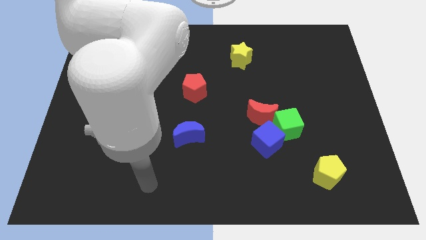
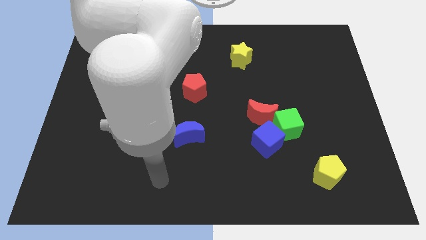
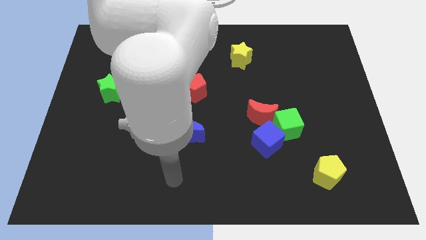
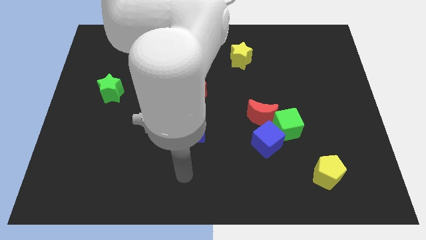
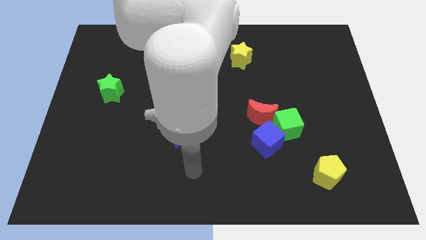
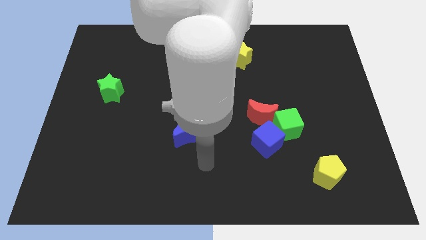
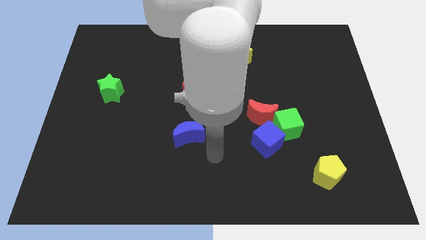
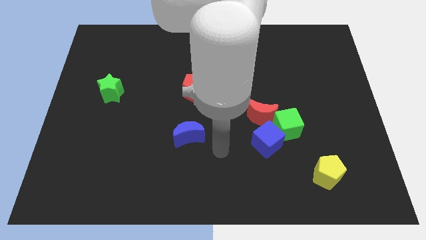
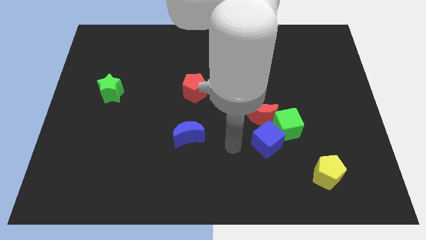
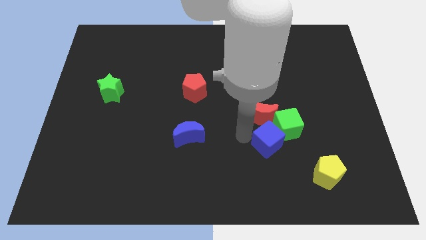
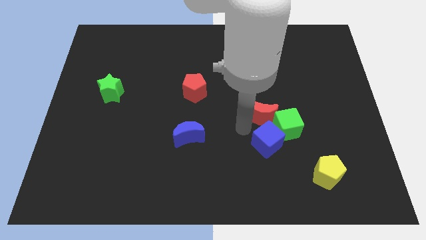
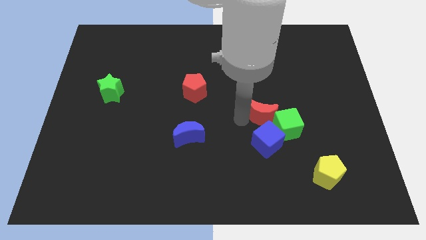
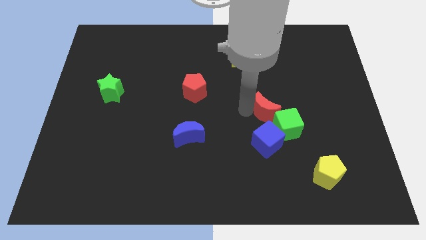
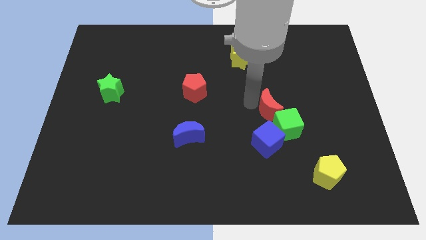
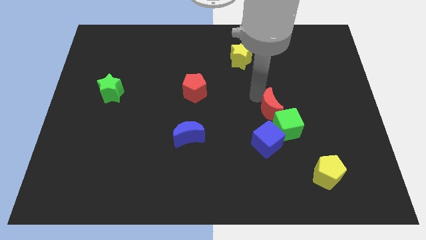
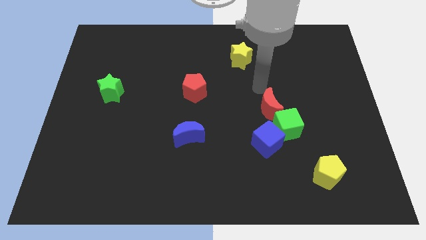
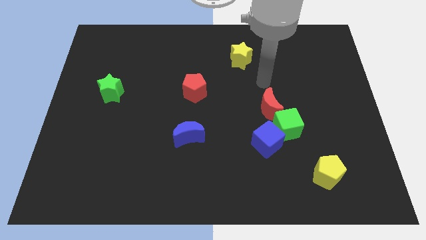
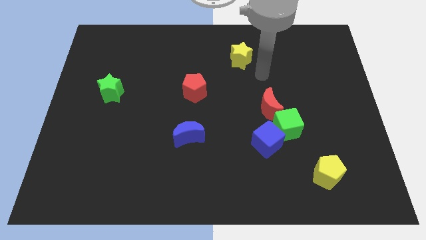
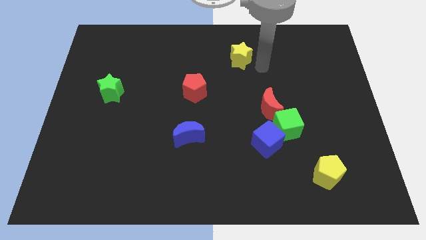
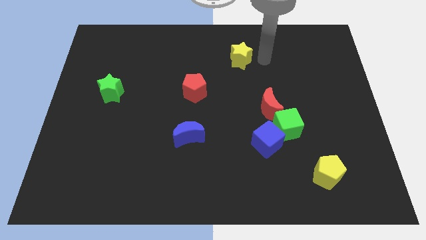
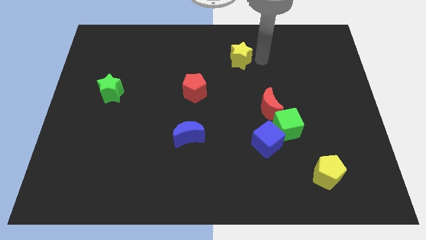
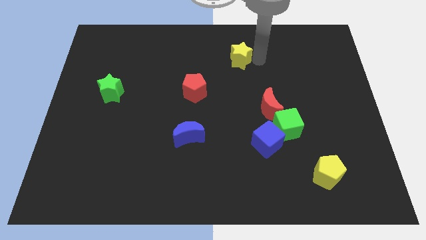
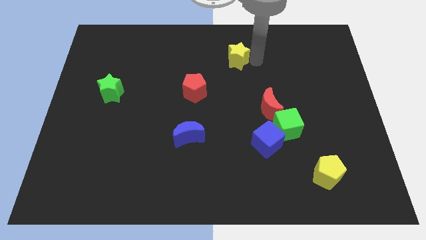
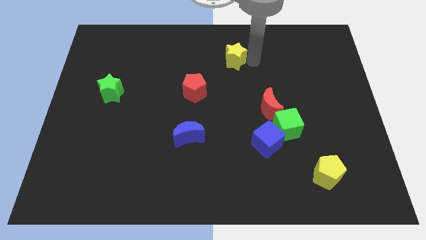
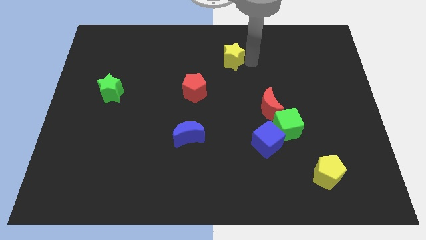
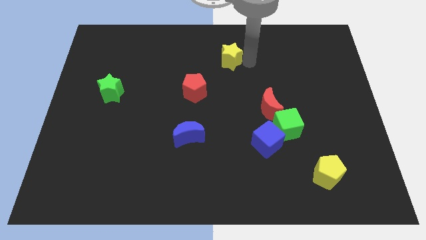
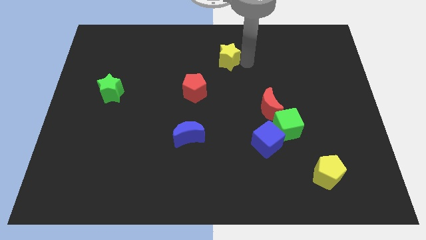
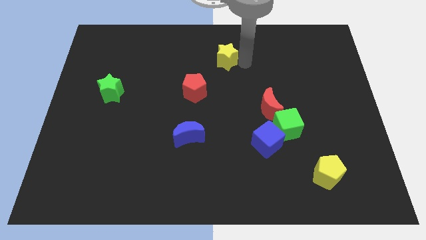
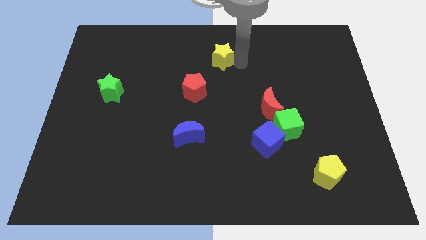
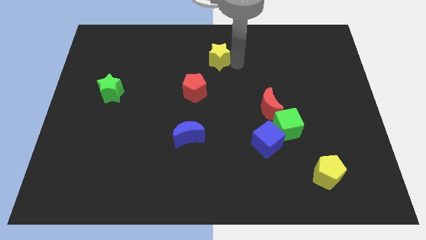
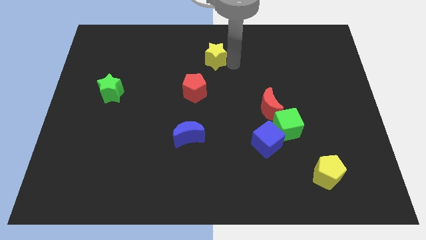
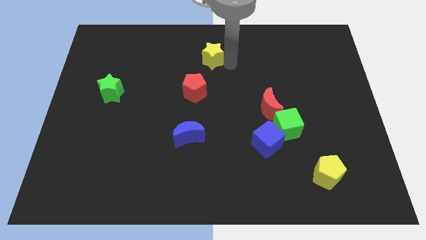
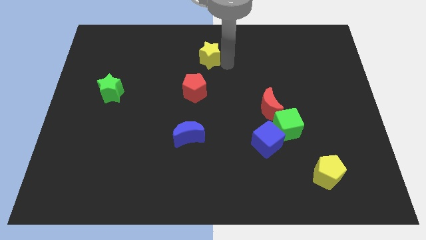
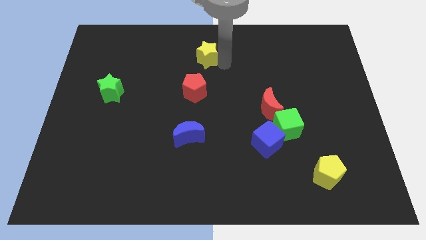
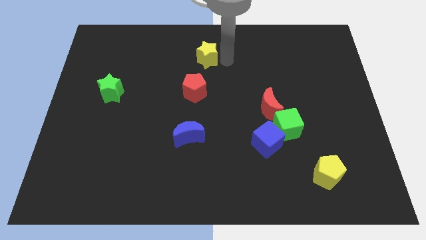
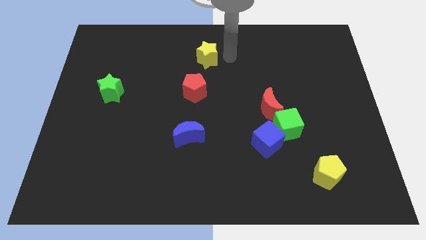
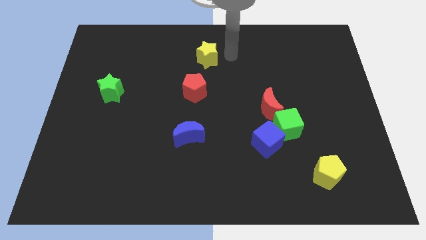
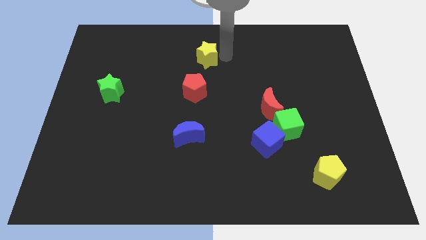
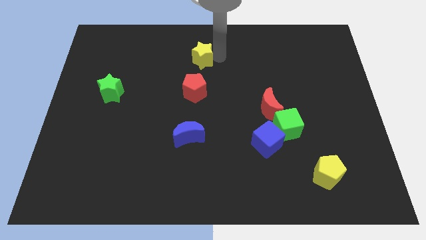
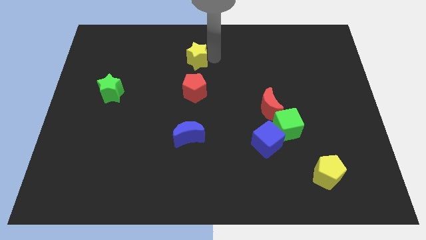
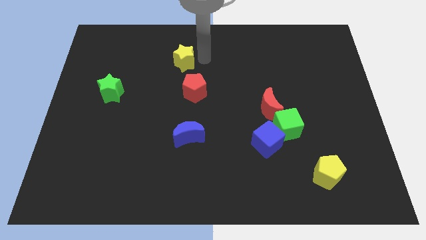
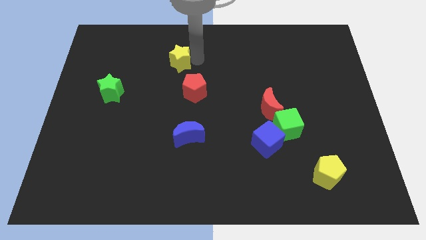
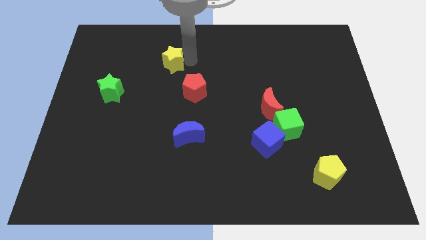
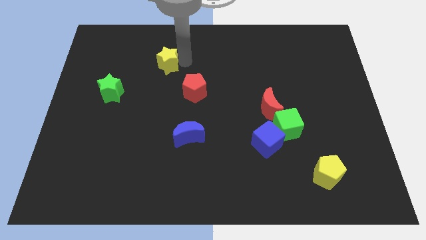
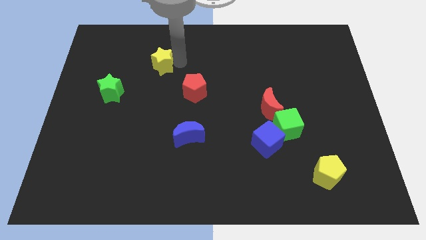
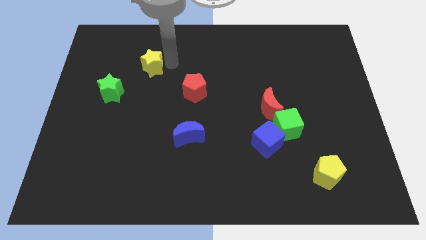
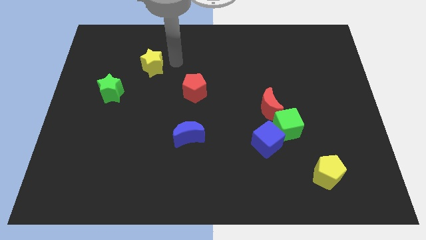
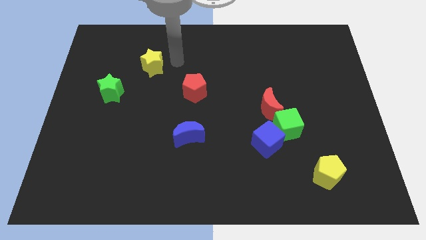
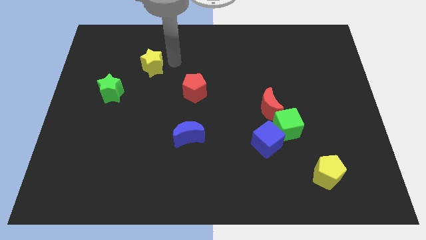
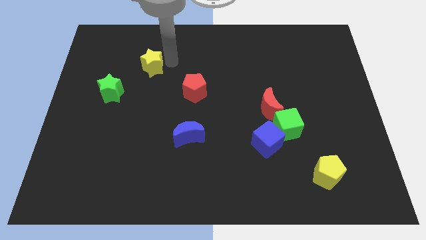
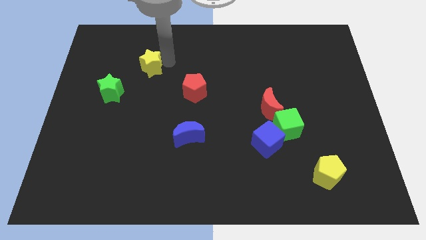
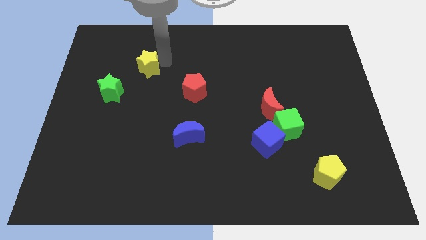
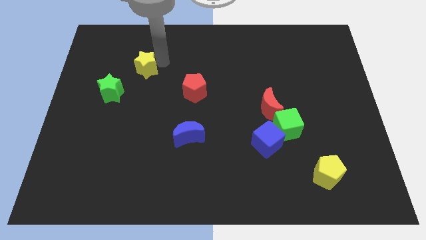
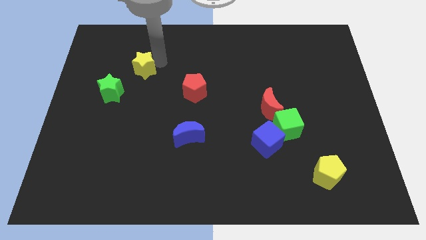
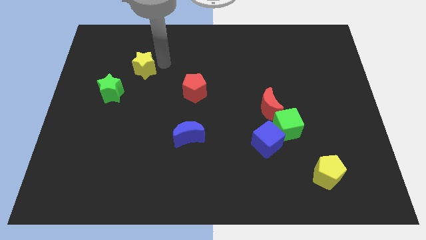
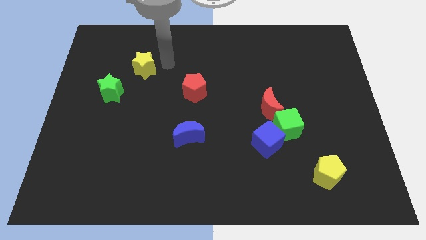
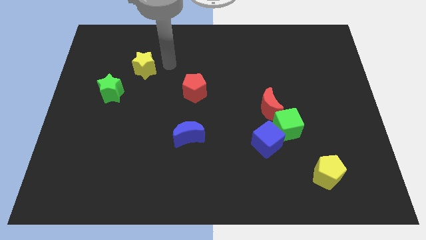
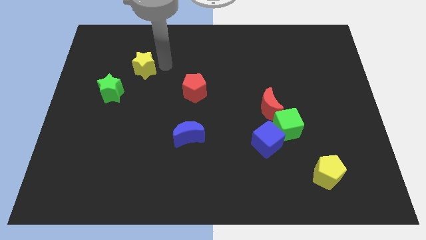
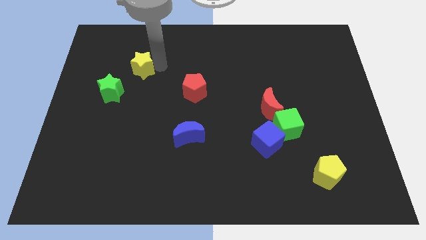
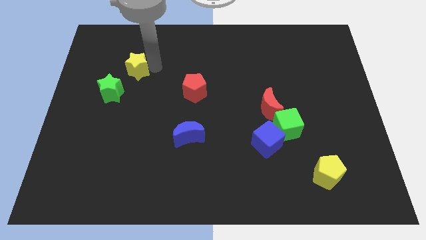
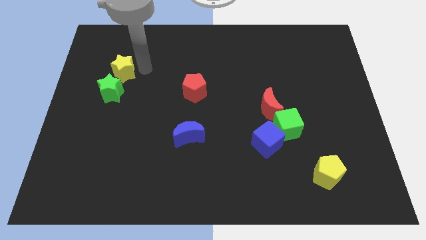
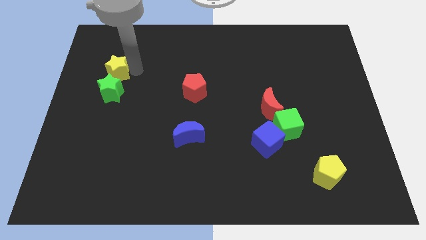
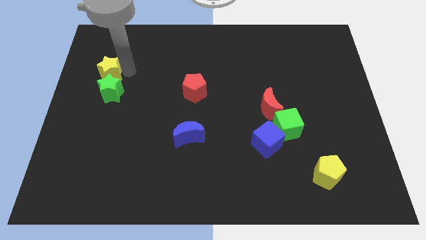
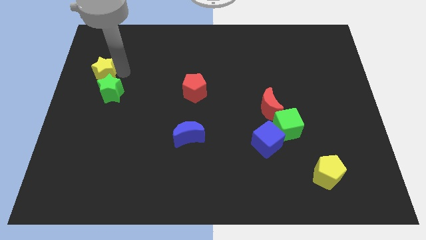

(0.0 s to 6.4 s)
put the yellow star to the left side
